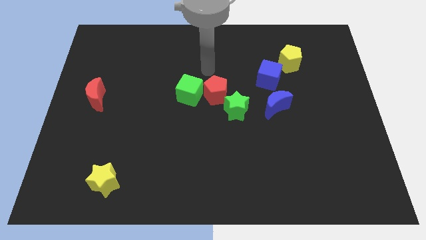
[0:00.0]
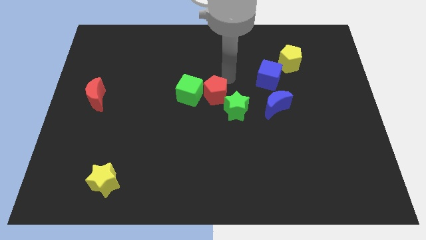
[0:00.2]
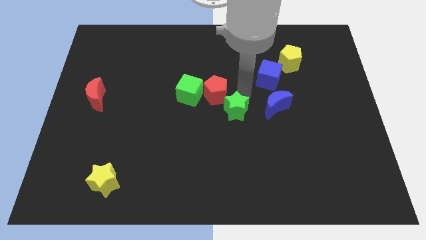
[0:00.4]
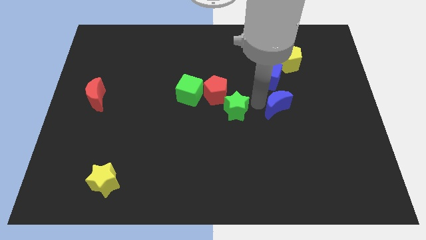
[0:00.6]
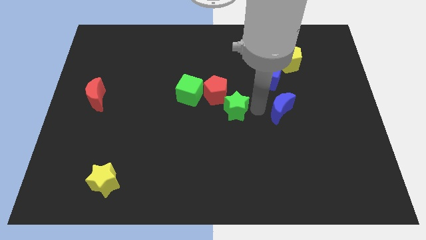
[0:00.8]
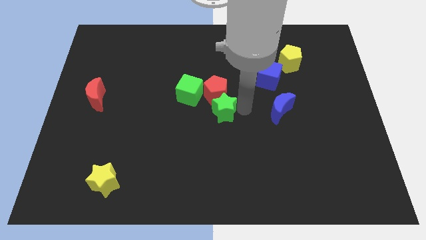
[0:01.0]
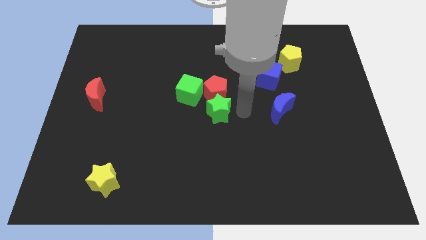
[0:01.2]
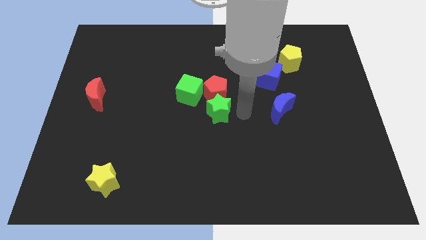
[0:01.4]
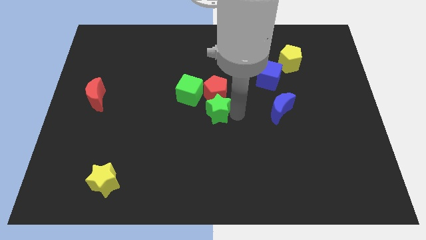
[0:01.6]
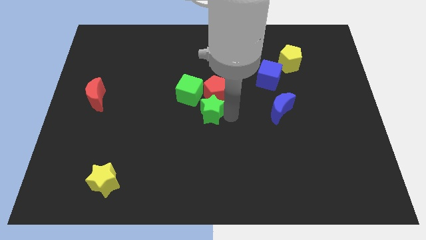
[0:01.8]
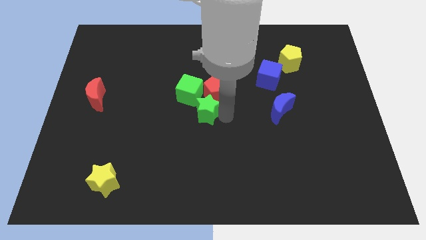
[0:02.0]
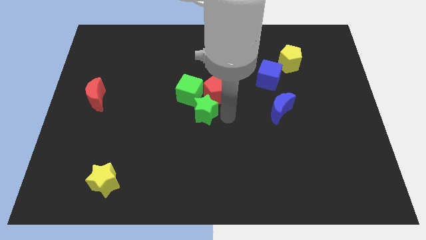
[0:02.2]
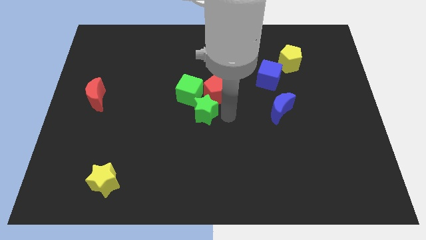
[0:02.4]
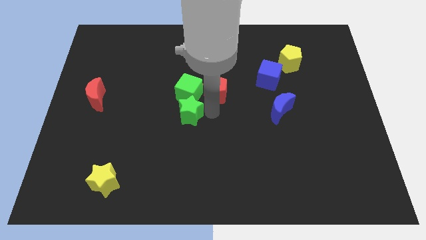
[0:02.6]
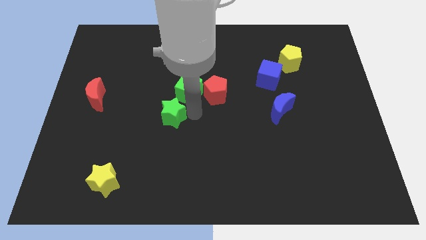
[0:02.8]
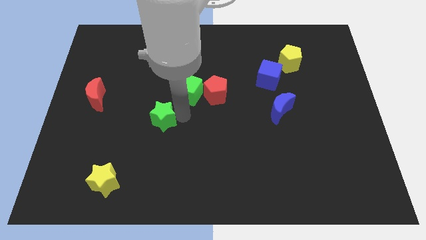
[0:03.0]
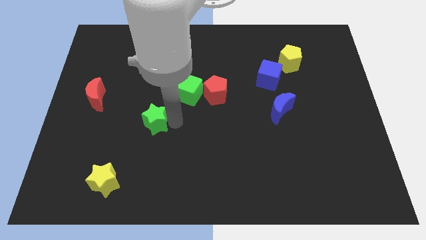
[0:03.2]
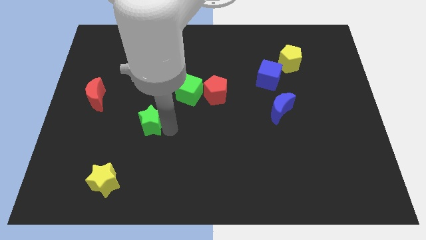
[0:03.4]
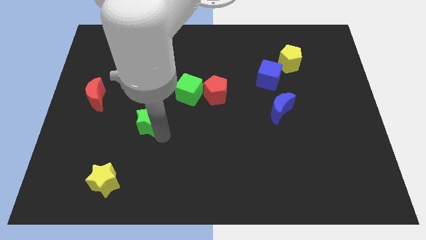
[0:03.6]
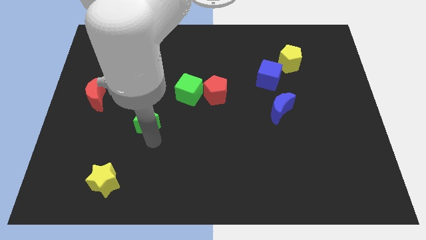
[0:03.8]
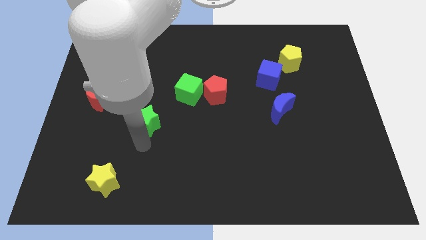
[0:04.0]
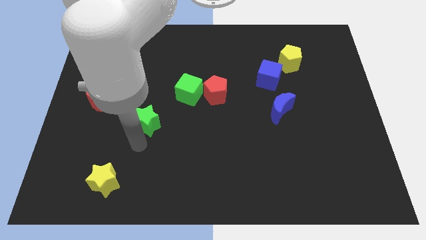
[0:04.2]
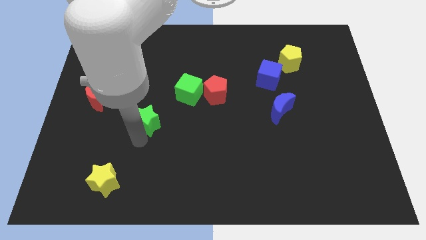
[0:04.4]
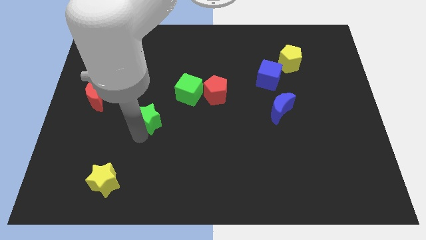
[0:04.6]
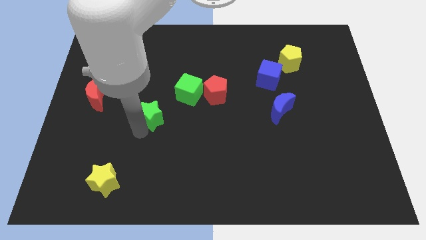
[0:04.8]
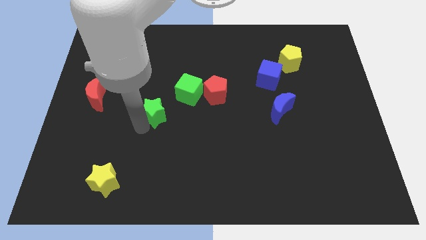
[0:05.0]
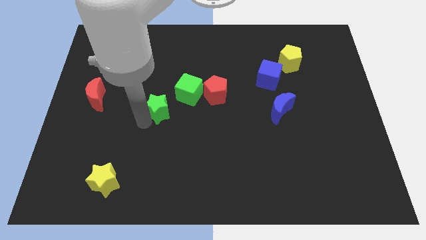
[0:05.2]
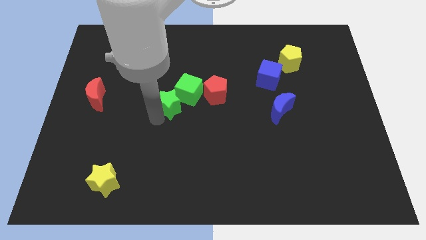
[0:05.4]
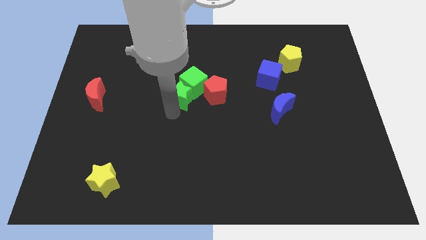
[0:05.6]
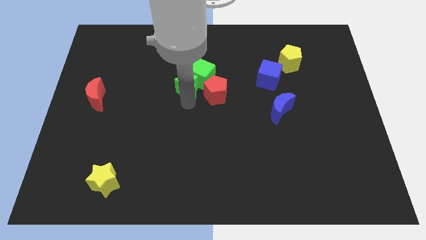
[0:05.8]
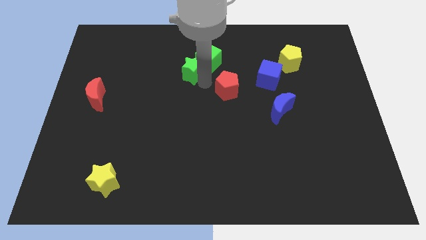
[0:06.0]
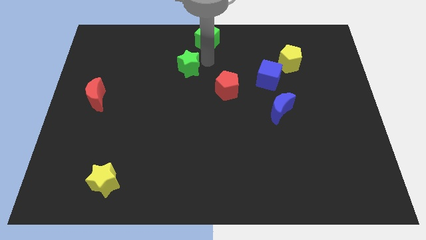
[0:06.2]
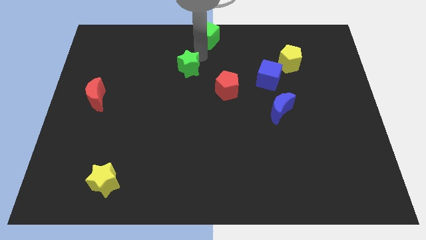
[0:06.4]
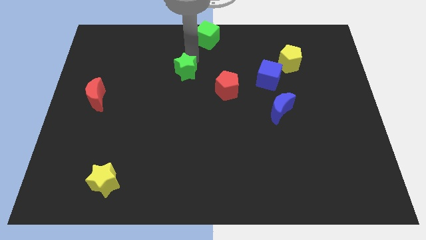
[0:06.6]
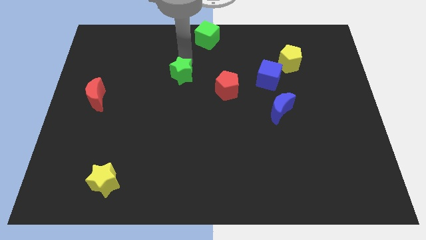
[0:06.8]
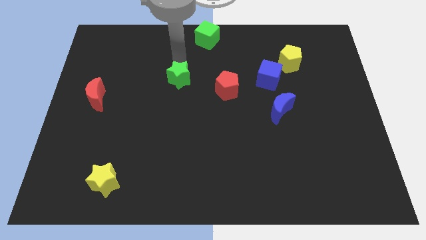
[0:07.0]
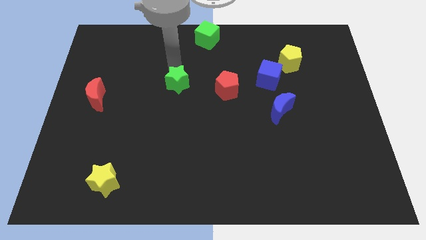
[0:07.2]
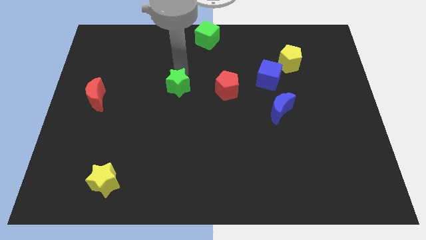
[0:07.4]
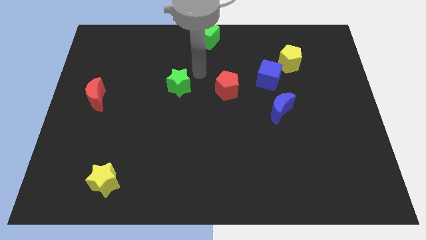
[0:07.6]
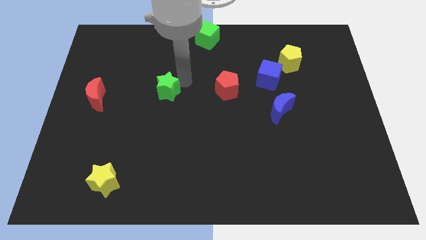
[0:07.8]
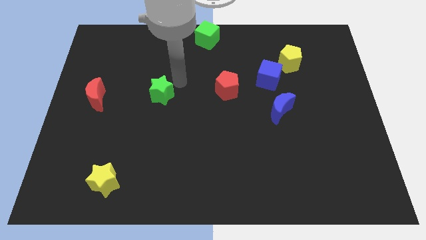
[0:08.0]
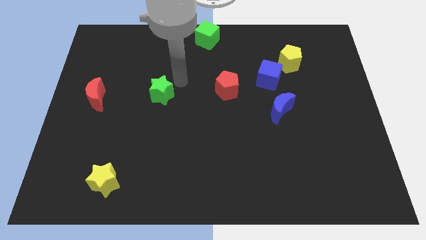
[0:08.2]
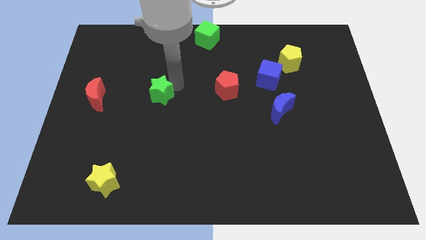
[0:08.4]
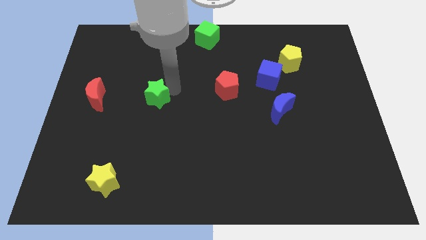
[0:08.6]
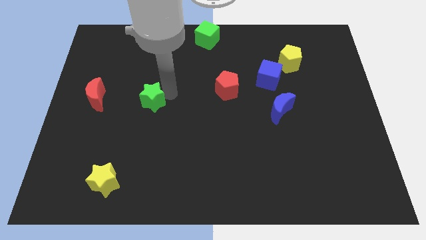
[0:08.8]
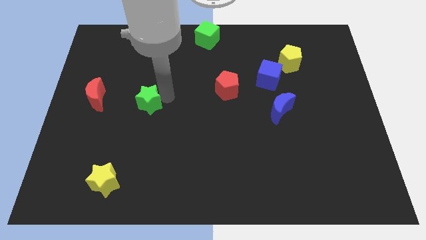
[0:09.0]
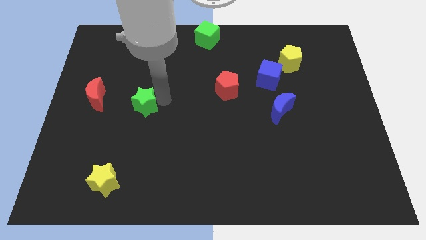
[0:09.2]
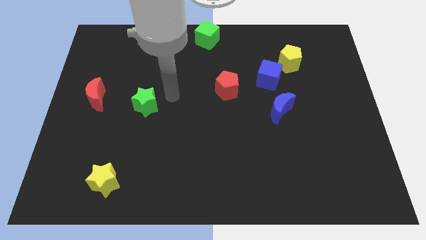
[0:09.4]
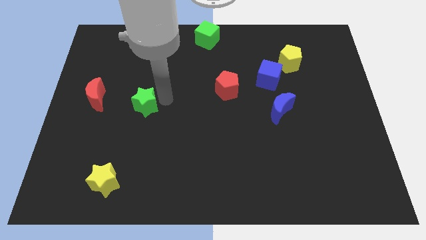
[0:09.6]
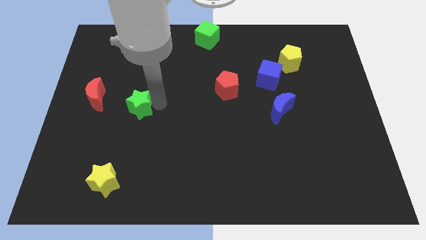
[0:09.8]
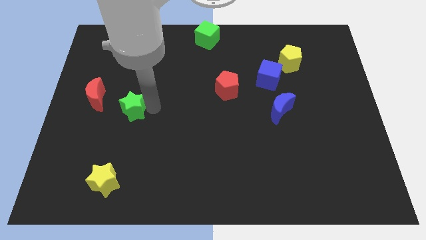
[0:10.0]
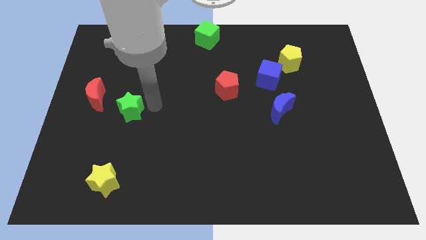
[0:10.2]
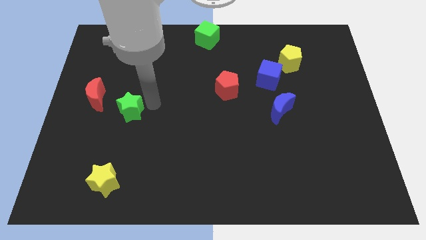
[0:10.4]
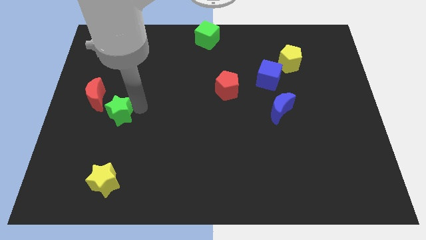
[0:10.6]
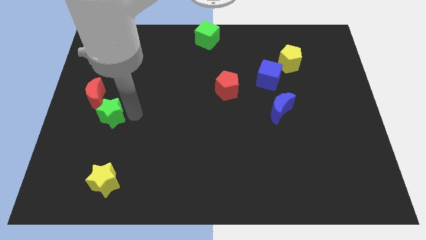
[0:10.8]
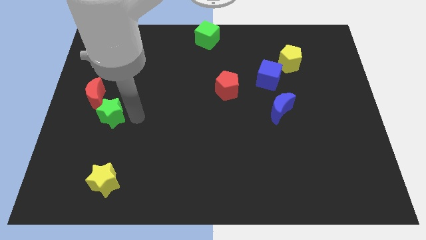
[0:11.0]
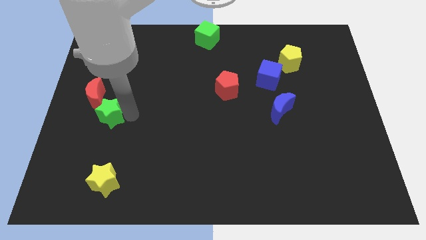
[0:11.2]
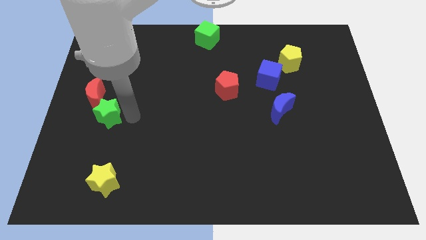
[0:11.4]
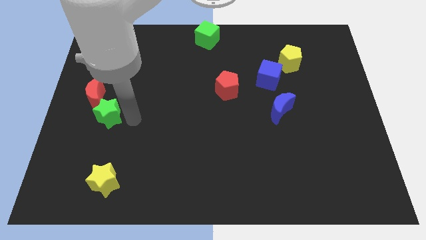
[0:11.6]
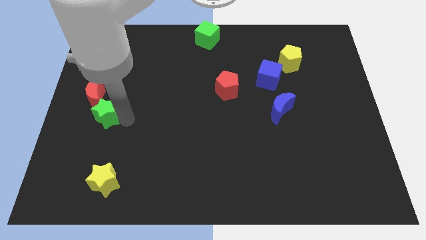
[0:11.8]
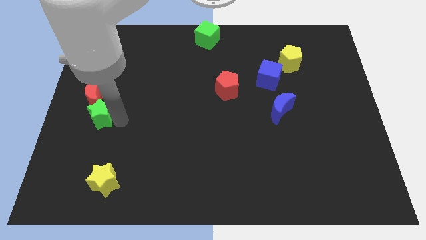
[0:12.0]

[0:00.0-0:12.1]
push the green star to the center left

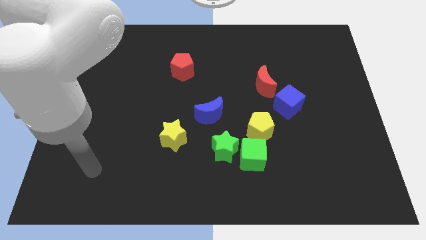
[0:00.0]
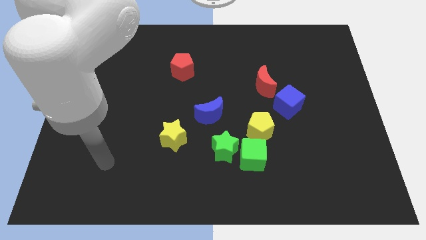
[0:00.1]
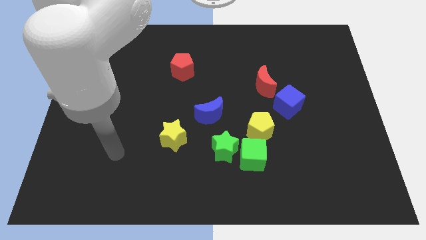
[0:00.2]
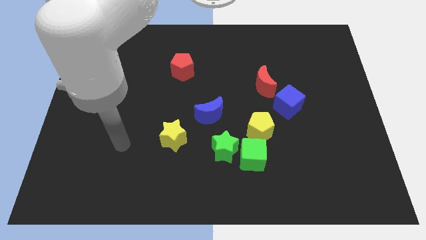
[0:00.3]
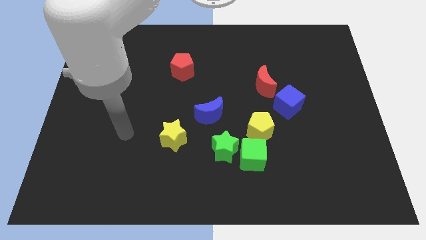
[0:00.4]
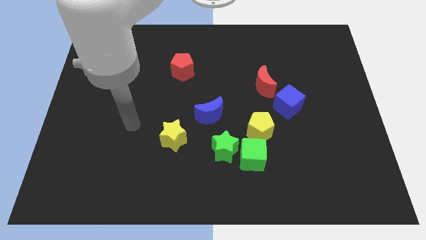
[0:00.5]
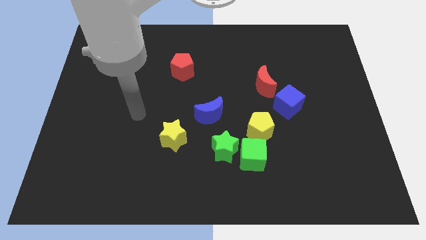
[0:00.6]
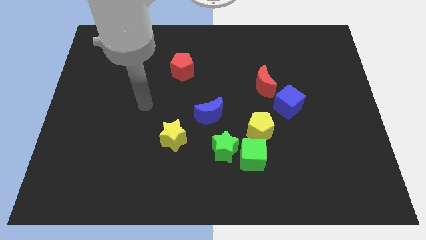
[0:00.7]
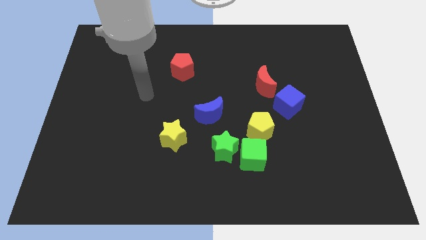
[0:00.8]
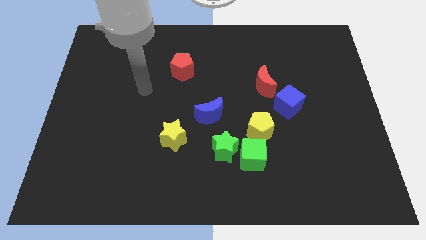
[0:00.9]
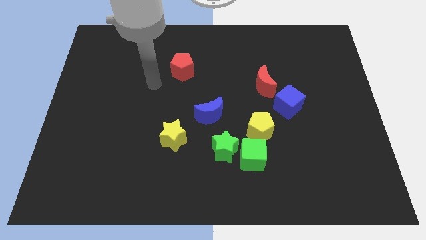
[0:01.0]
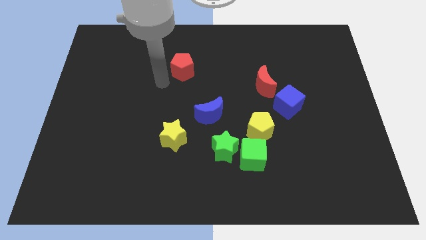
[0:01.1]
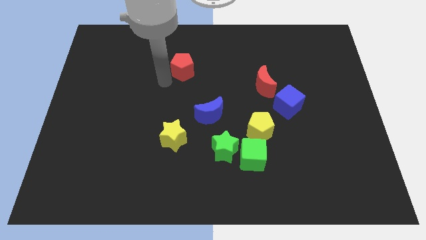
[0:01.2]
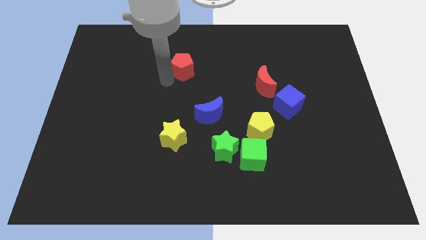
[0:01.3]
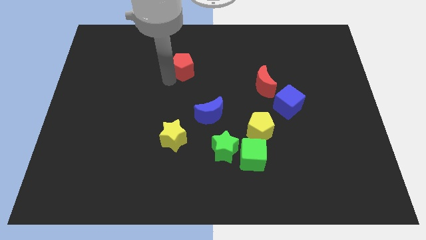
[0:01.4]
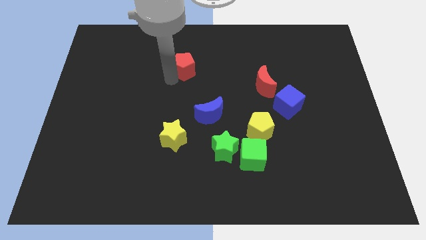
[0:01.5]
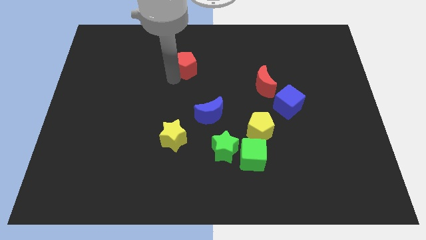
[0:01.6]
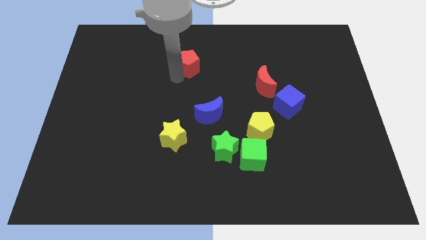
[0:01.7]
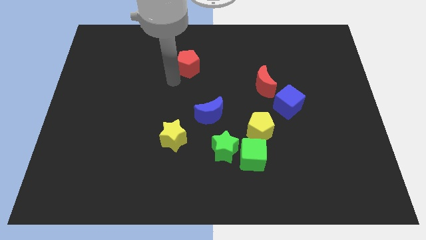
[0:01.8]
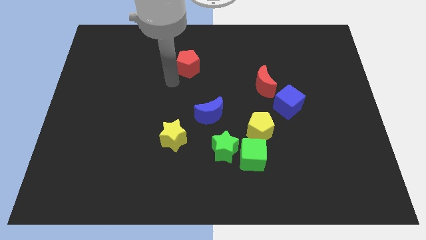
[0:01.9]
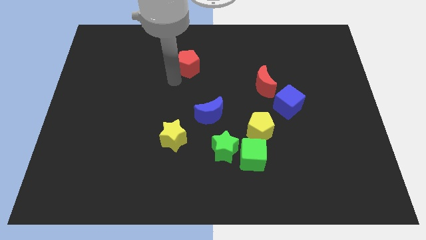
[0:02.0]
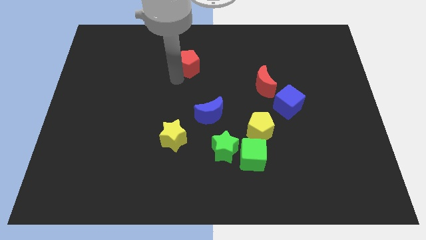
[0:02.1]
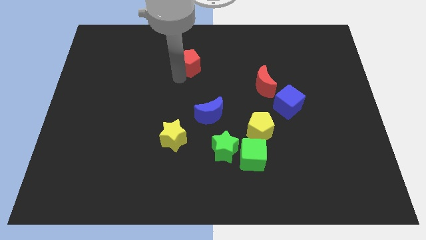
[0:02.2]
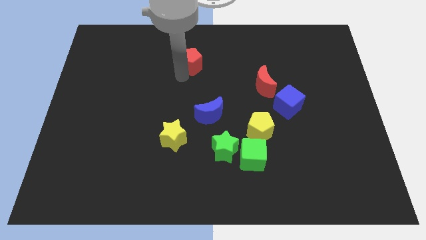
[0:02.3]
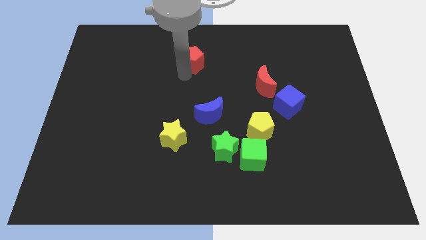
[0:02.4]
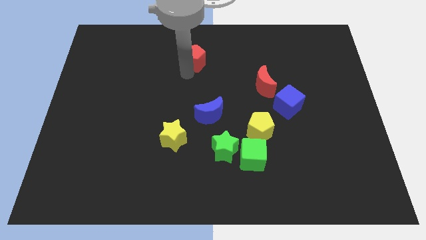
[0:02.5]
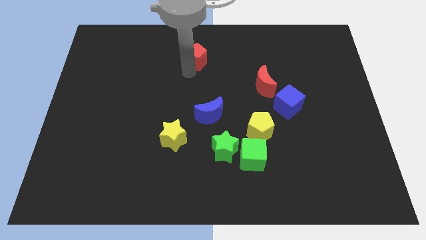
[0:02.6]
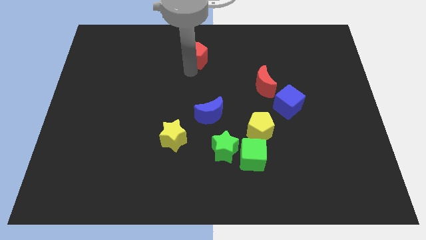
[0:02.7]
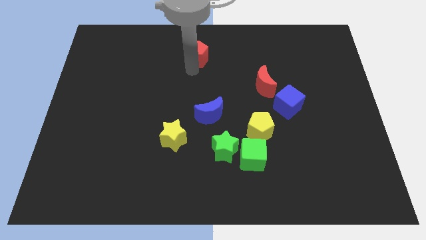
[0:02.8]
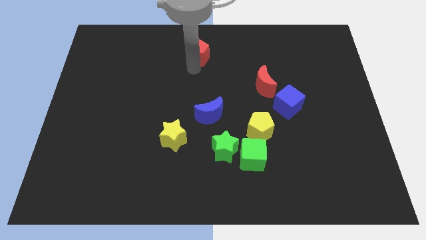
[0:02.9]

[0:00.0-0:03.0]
slide the red pentagon to the top side
